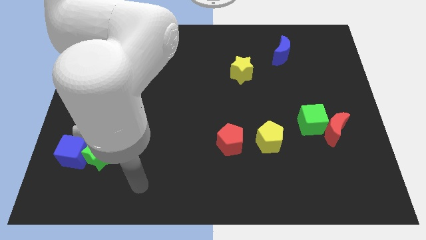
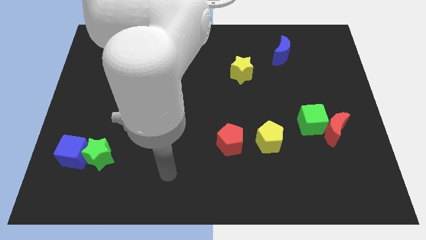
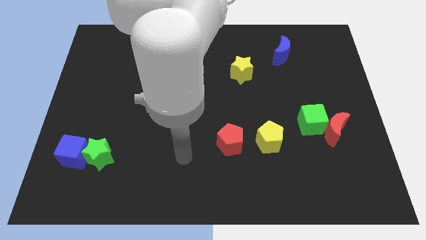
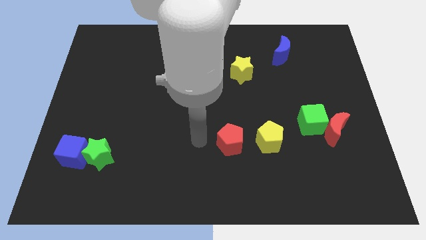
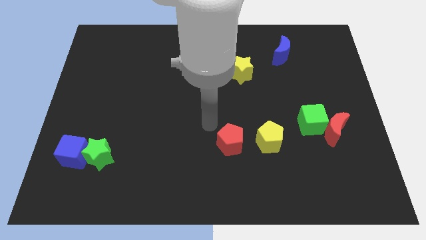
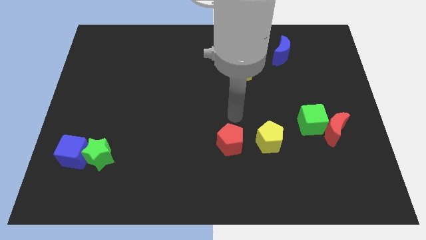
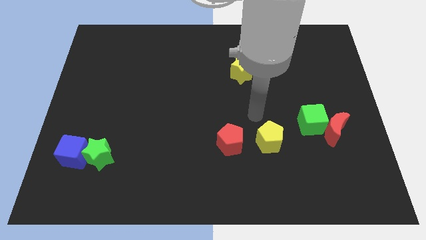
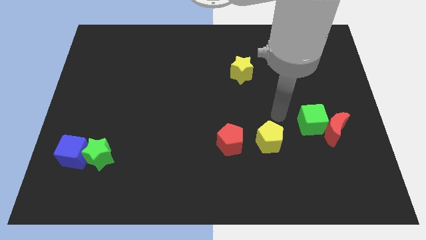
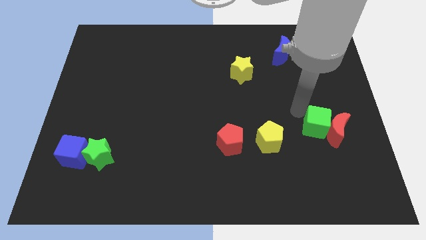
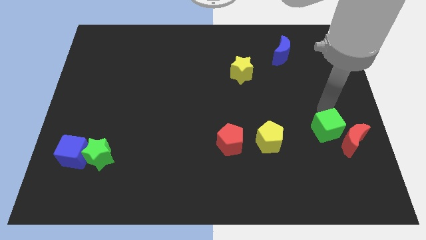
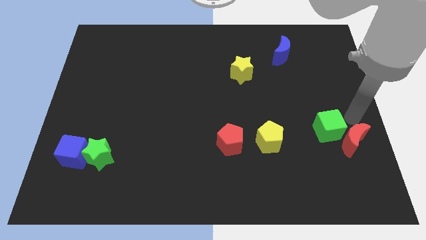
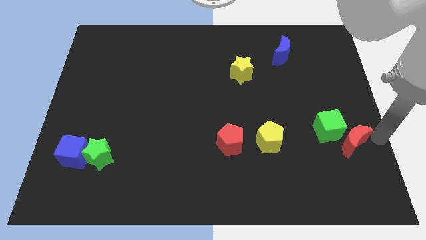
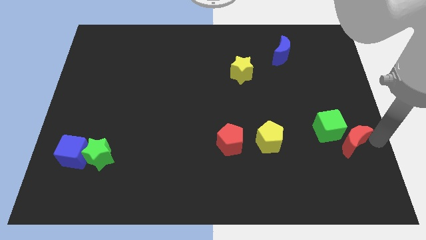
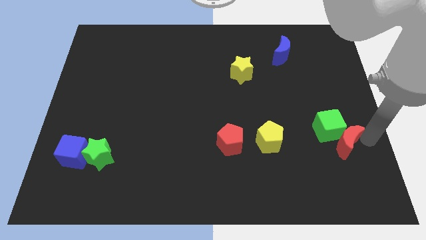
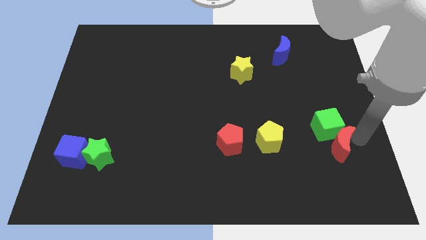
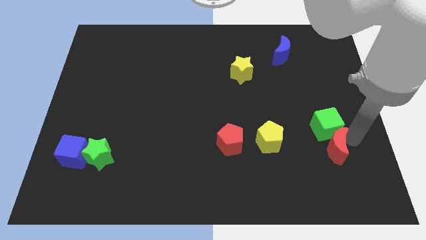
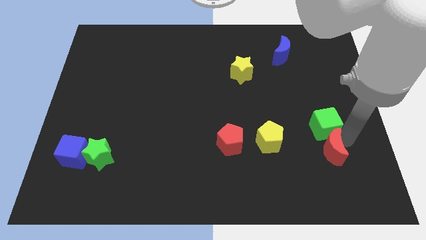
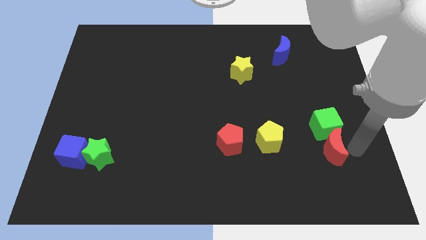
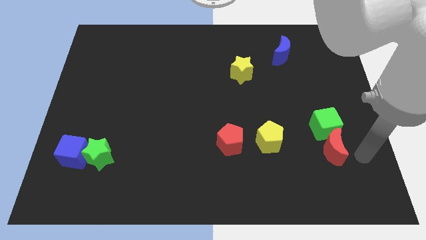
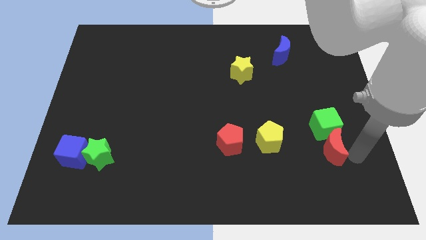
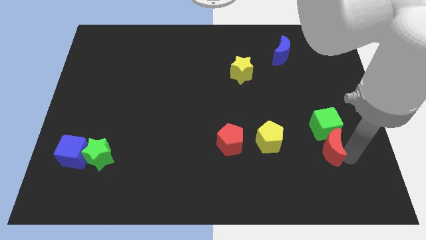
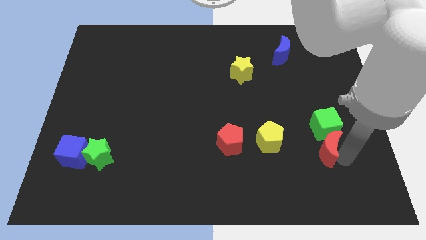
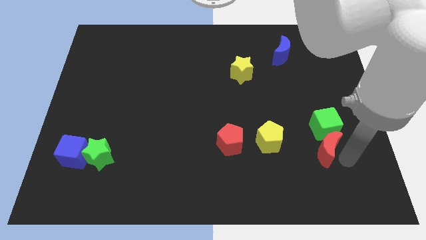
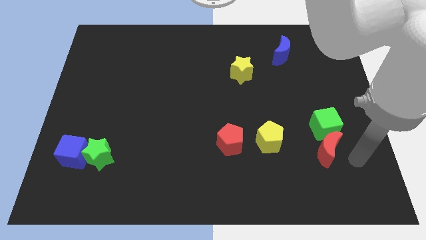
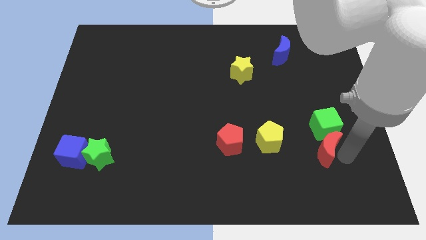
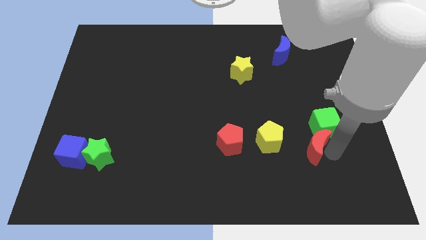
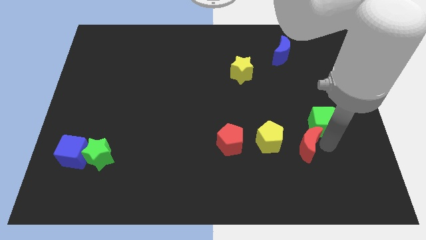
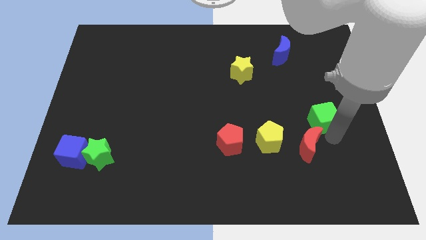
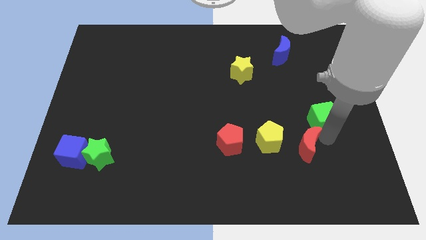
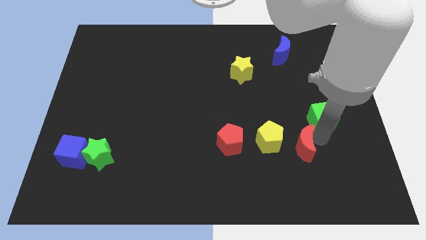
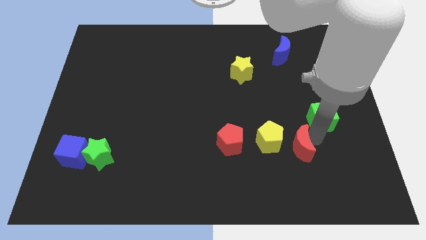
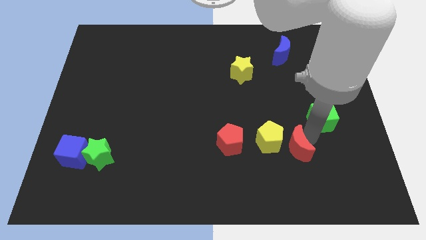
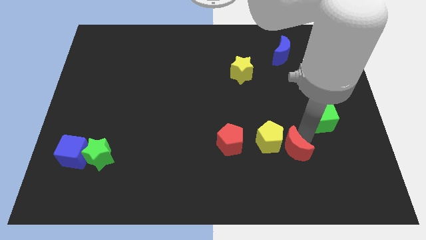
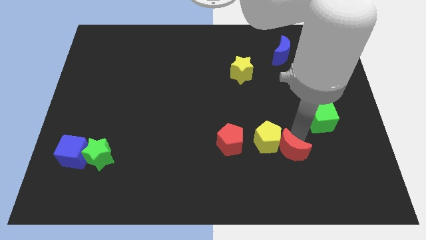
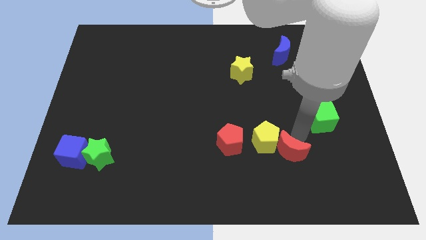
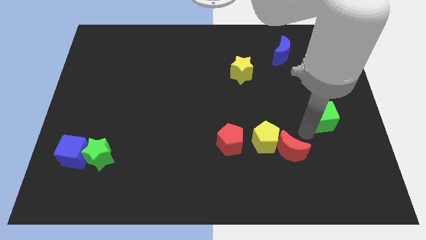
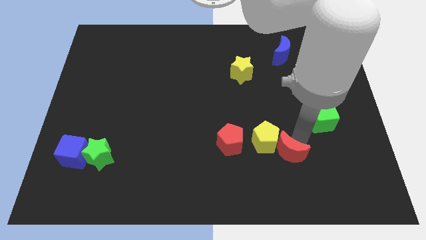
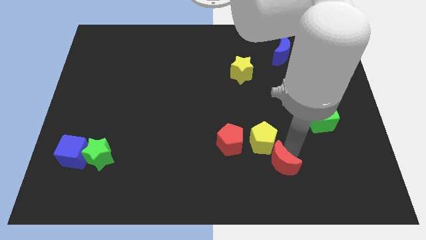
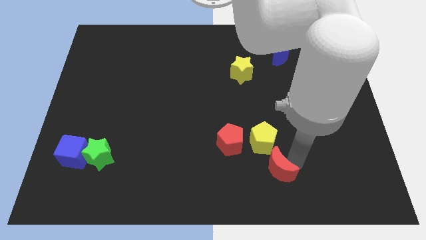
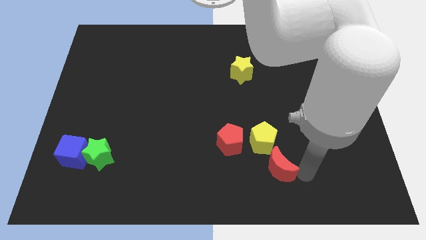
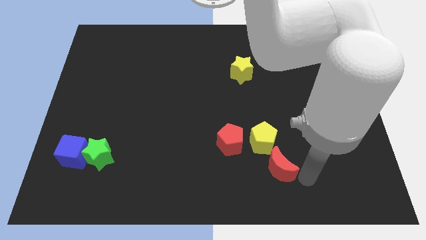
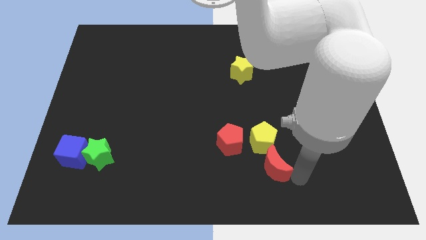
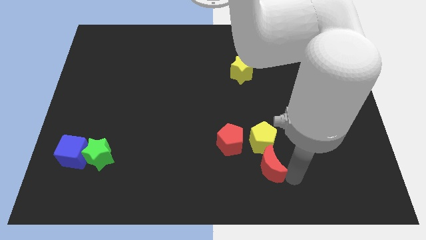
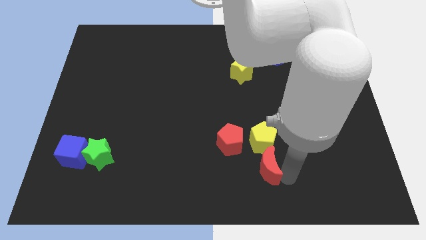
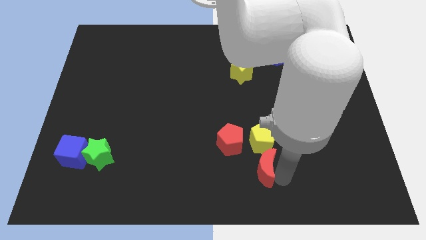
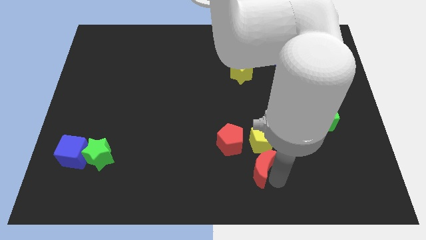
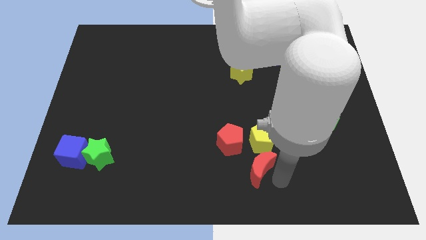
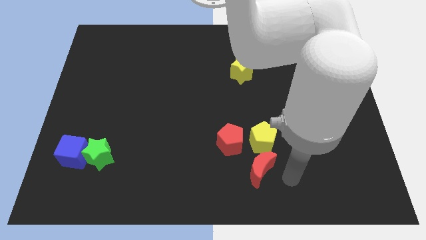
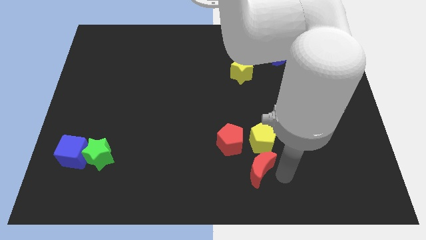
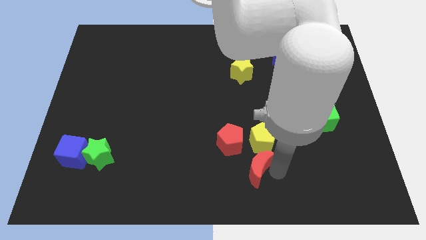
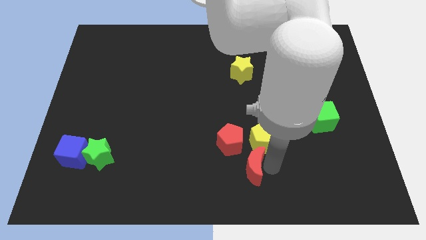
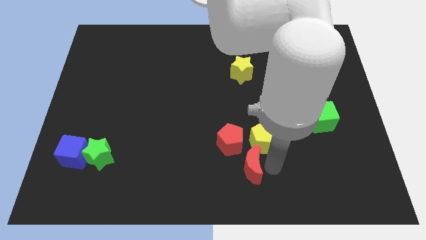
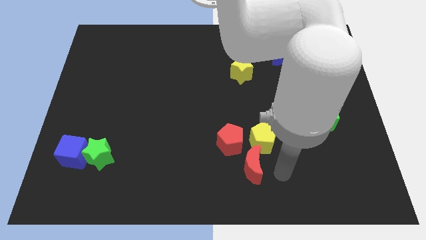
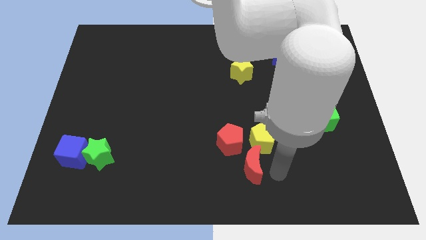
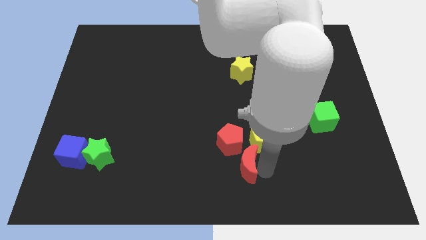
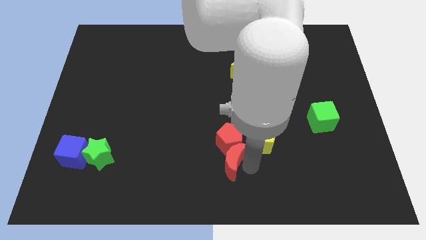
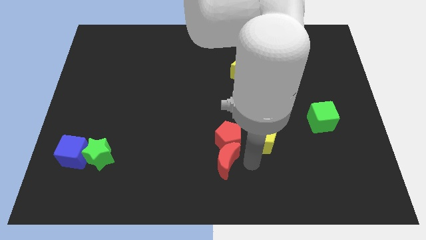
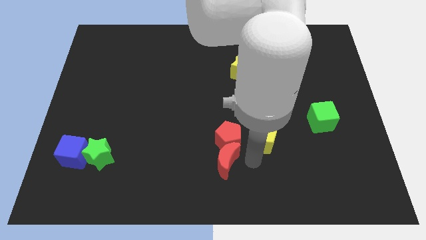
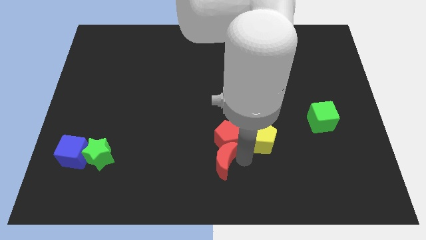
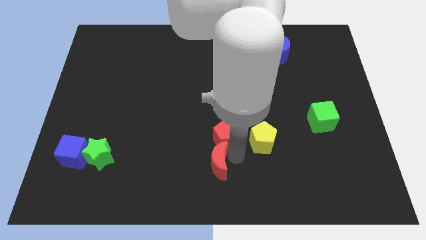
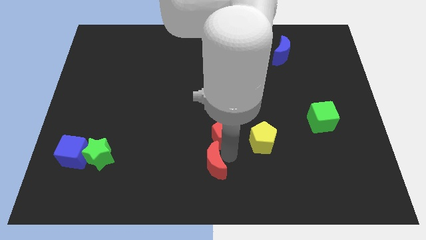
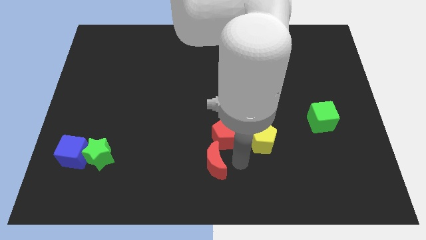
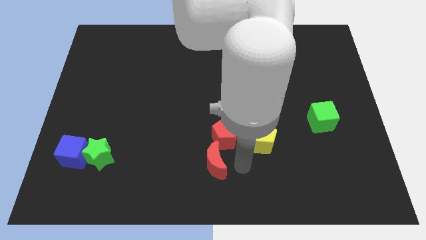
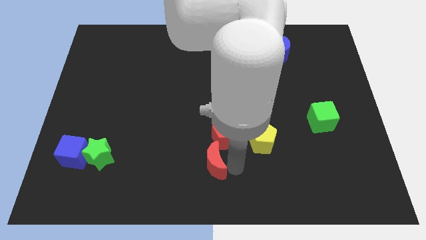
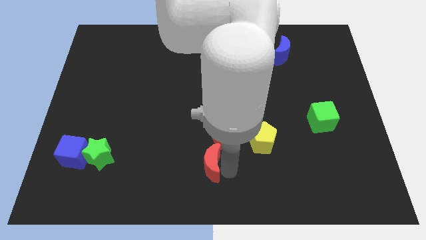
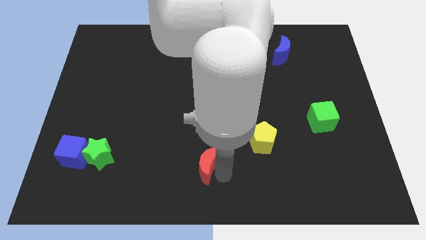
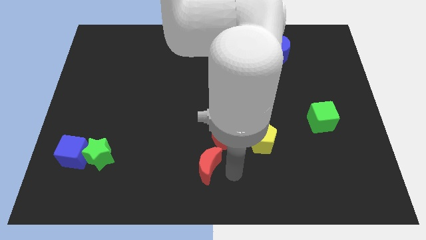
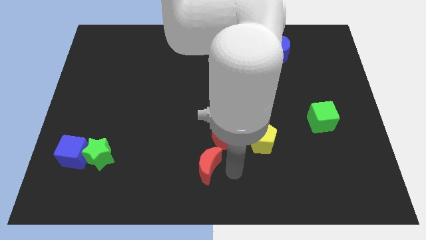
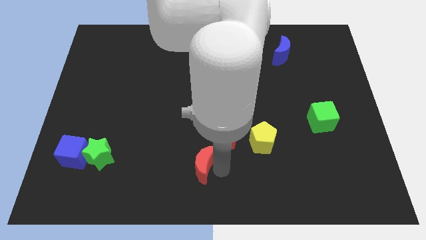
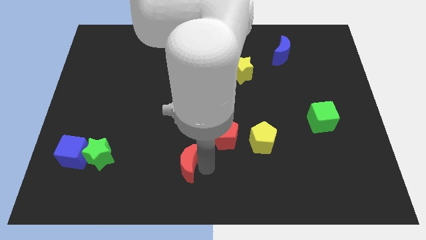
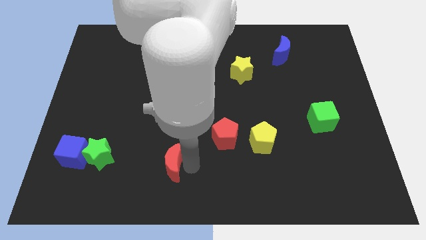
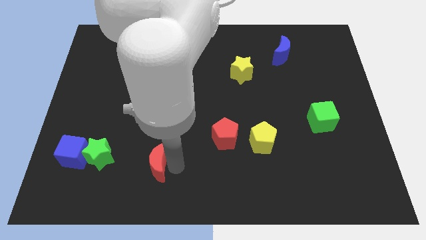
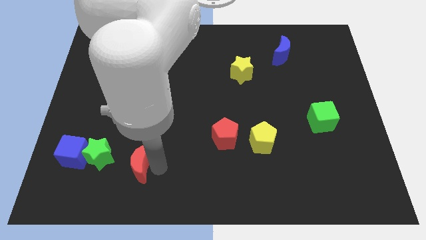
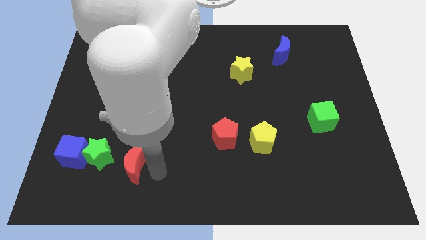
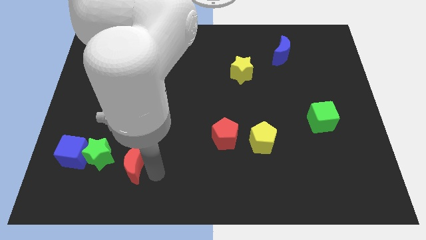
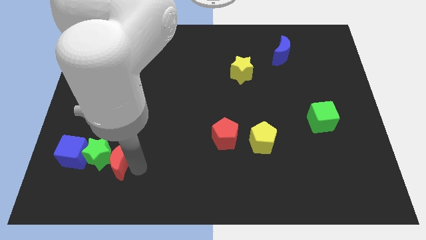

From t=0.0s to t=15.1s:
slide the red moon next to the green star

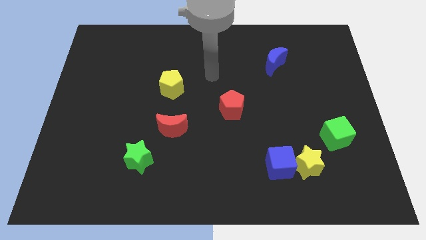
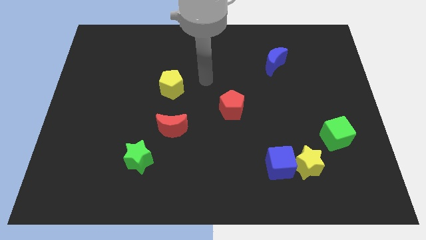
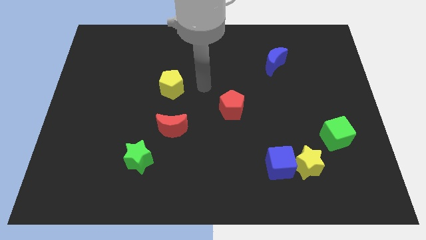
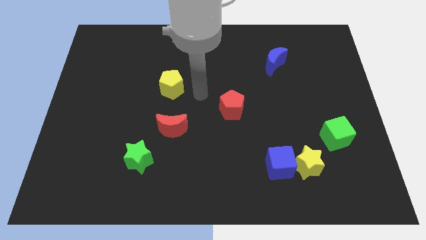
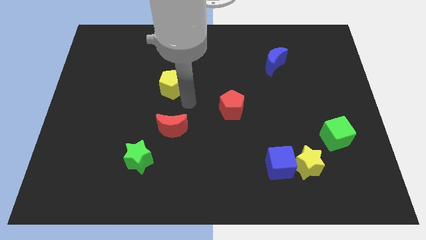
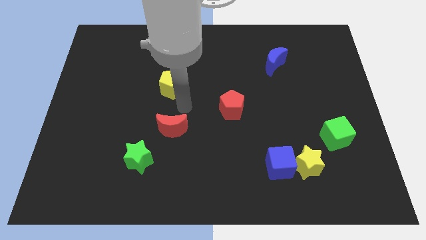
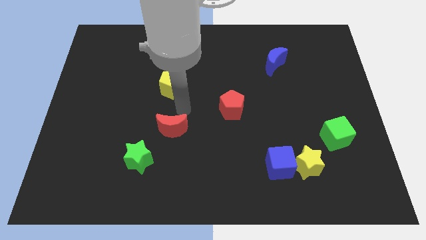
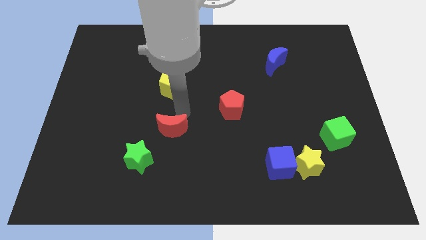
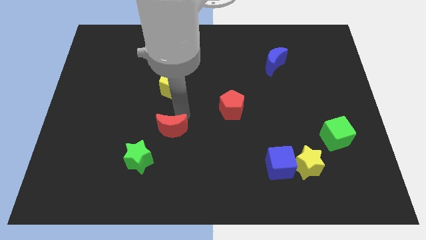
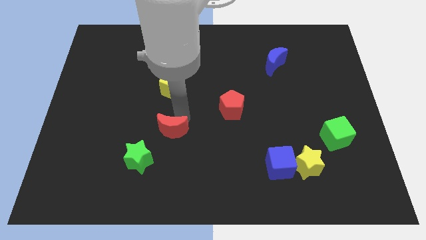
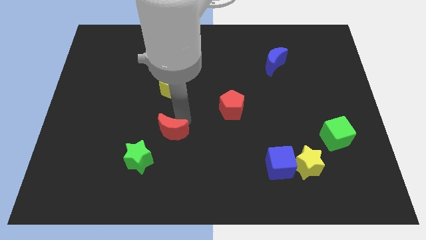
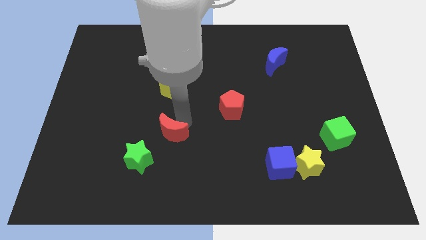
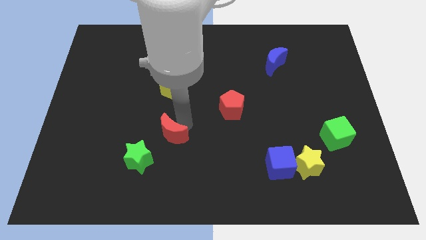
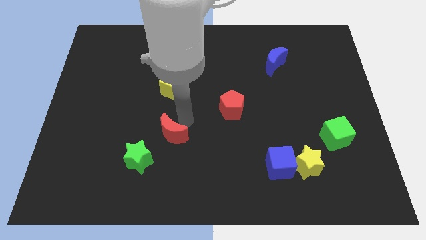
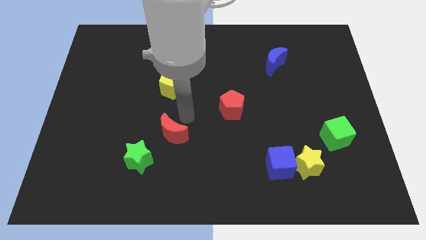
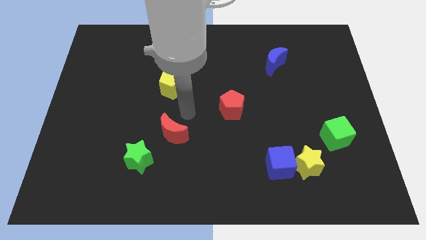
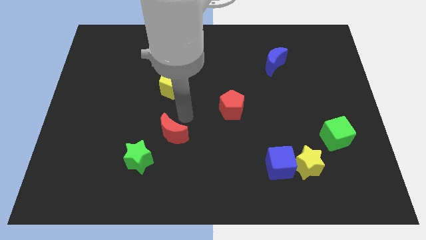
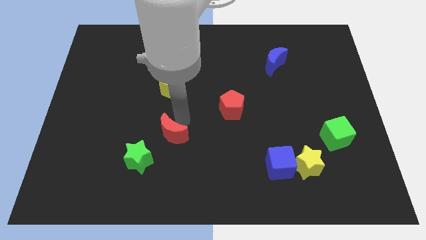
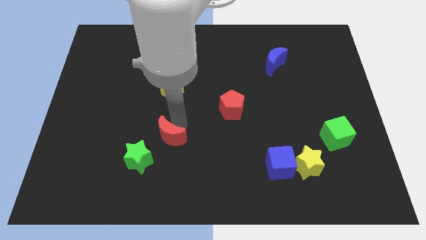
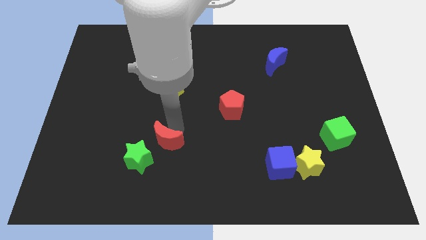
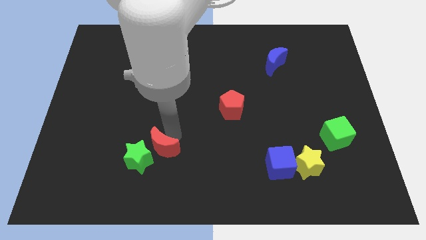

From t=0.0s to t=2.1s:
push the red moon close to the green star
